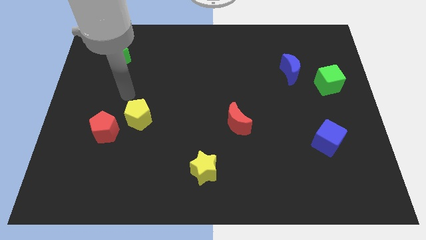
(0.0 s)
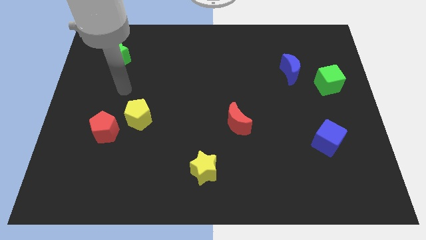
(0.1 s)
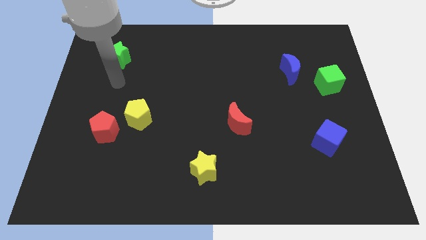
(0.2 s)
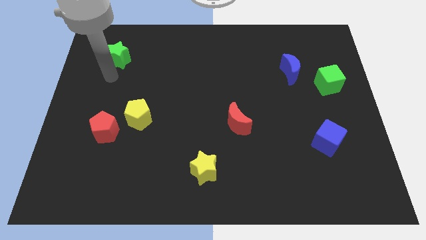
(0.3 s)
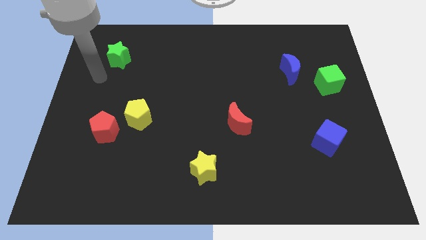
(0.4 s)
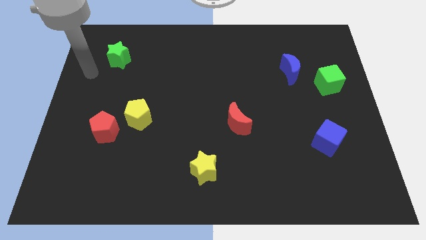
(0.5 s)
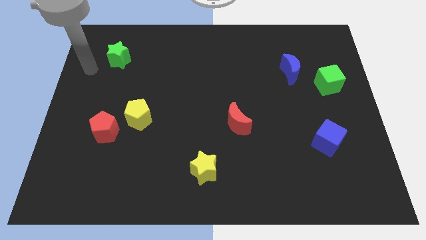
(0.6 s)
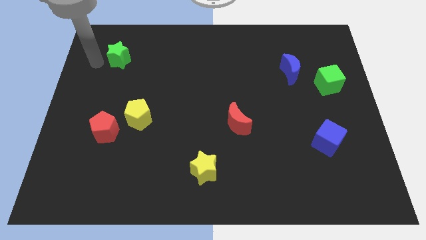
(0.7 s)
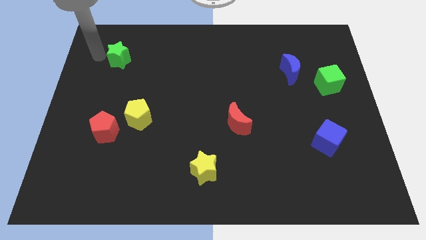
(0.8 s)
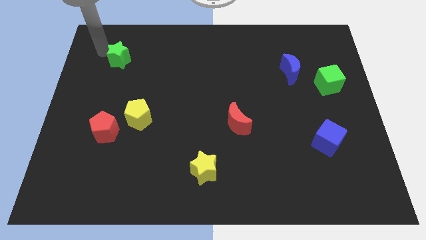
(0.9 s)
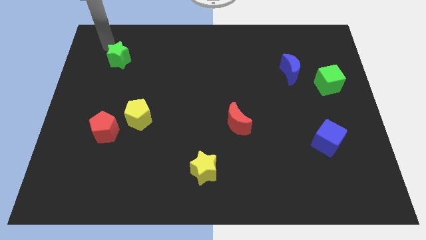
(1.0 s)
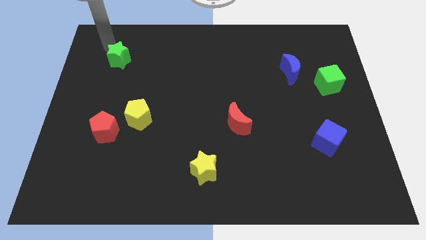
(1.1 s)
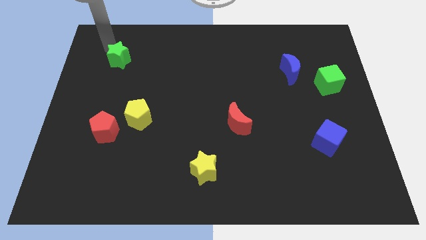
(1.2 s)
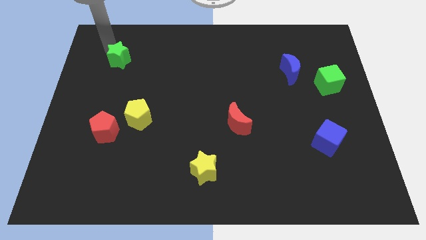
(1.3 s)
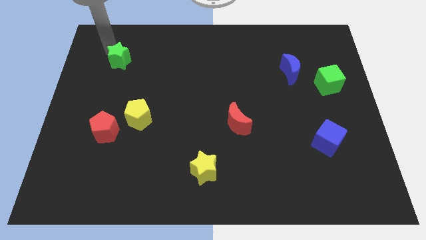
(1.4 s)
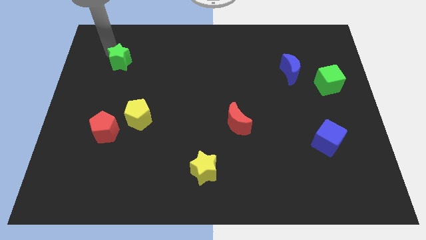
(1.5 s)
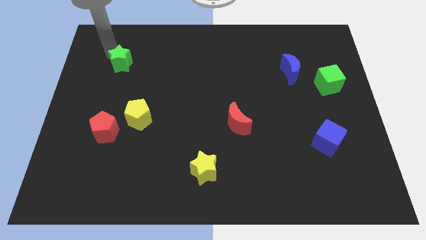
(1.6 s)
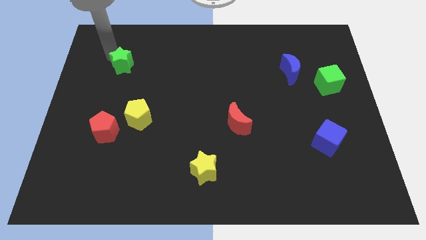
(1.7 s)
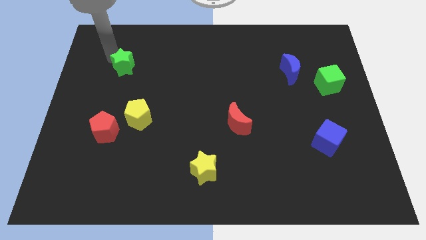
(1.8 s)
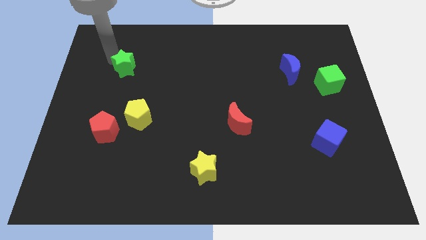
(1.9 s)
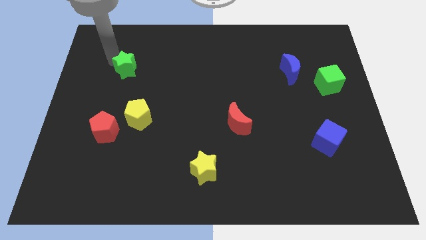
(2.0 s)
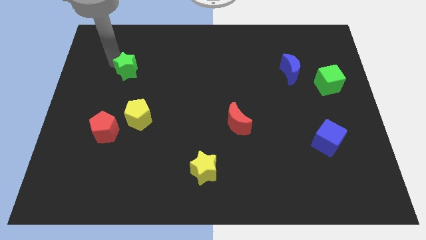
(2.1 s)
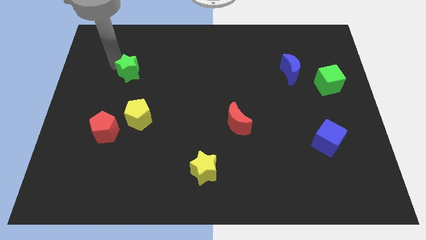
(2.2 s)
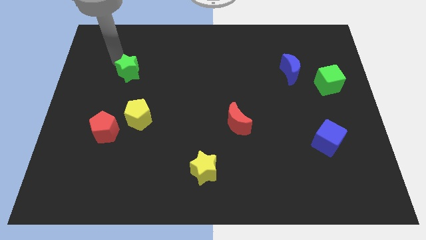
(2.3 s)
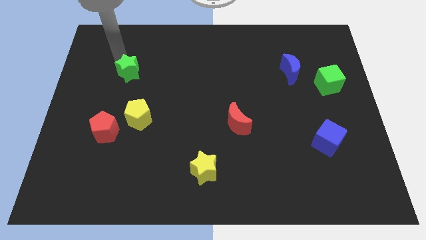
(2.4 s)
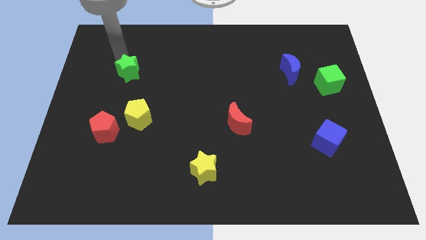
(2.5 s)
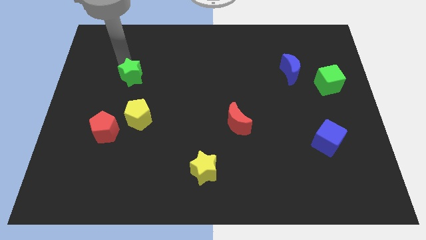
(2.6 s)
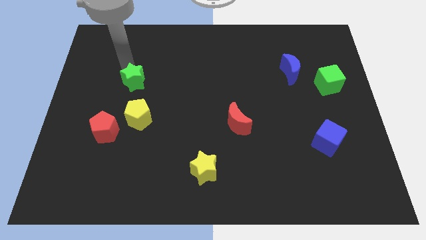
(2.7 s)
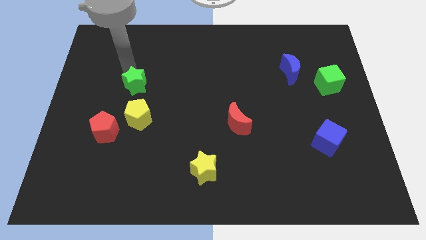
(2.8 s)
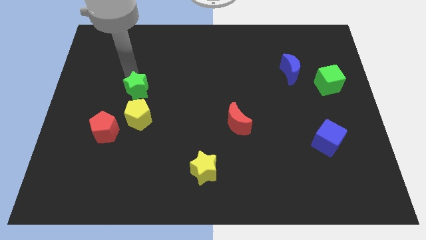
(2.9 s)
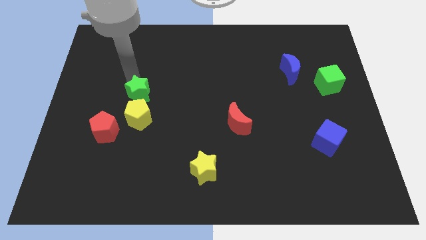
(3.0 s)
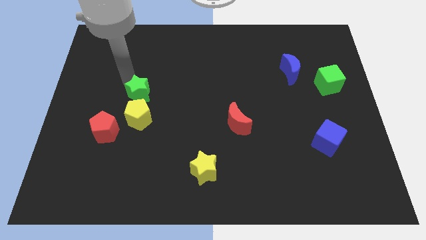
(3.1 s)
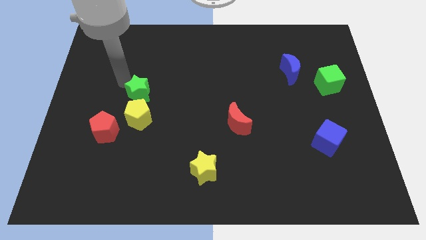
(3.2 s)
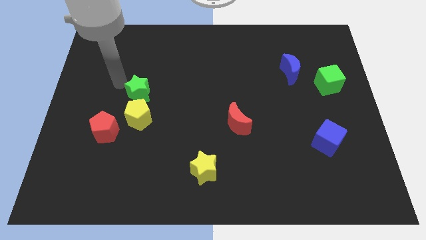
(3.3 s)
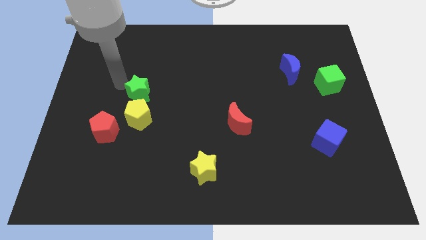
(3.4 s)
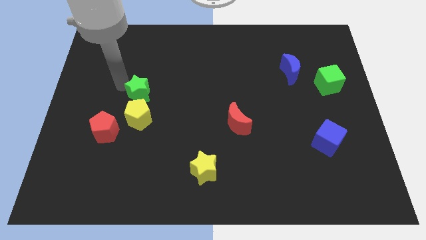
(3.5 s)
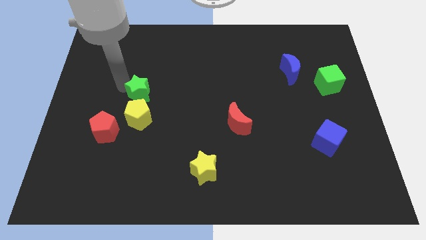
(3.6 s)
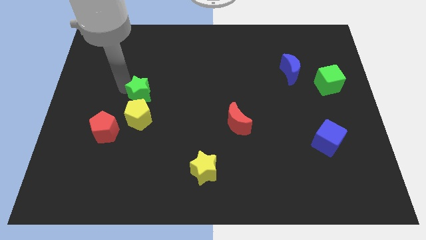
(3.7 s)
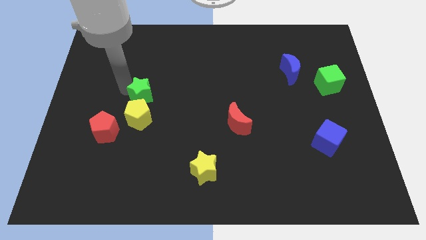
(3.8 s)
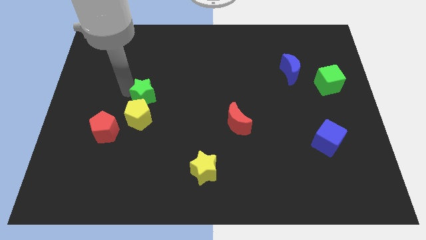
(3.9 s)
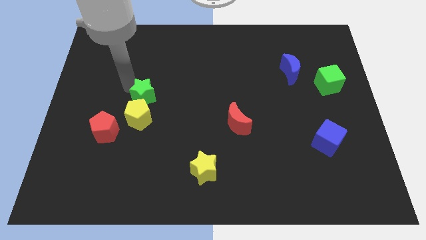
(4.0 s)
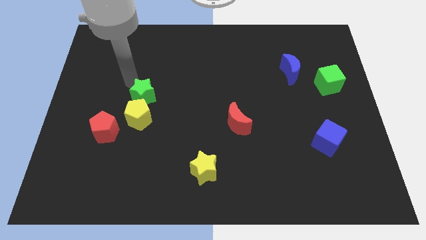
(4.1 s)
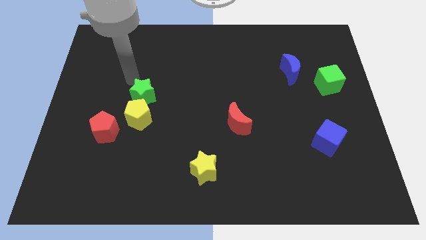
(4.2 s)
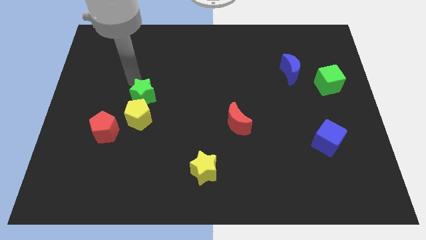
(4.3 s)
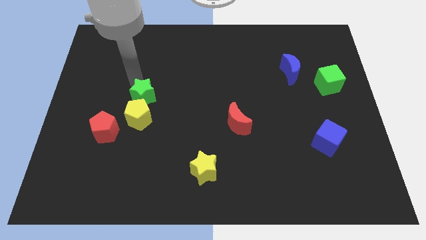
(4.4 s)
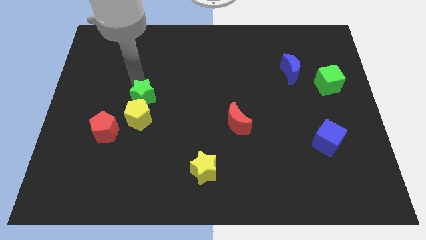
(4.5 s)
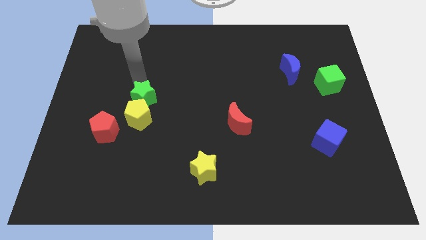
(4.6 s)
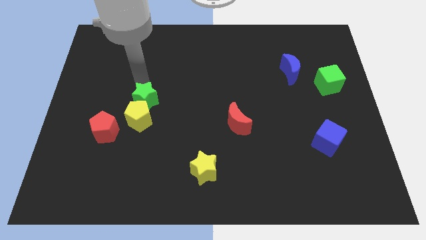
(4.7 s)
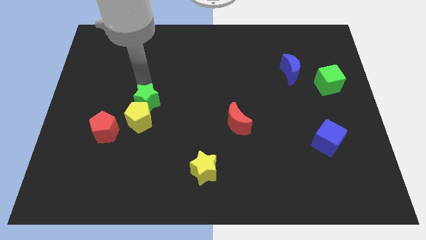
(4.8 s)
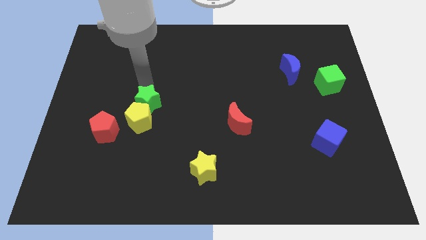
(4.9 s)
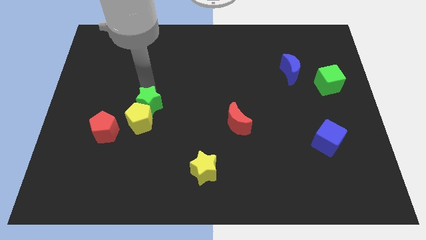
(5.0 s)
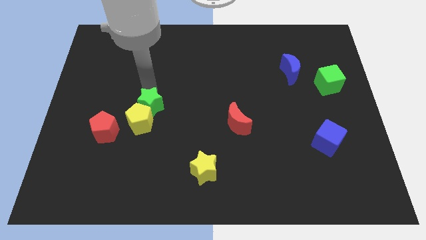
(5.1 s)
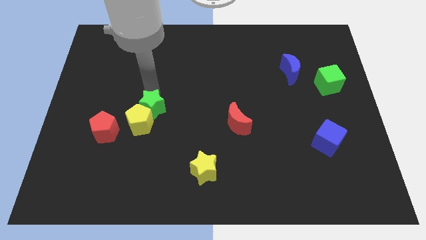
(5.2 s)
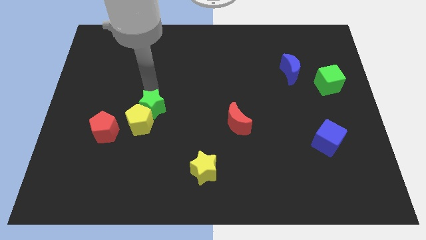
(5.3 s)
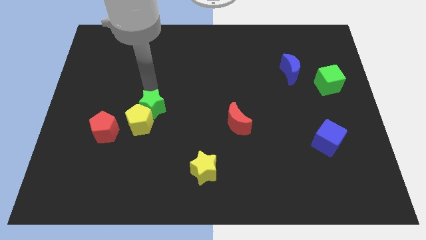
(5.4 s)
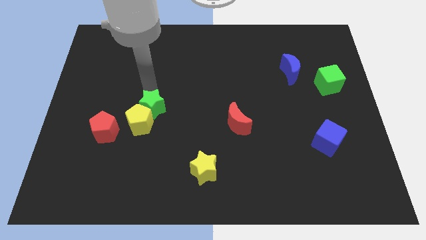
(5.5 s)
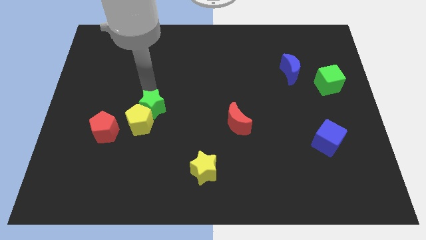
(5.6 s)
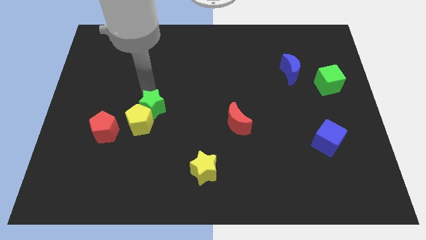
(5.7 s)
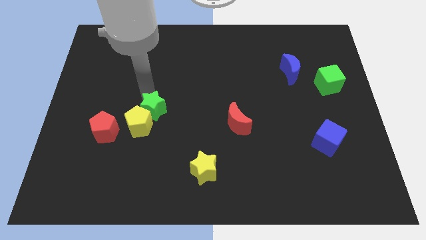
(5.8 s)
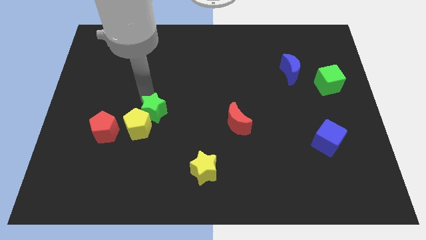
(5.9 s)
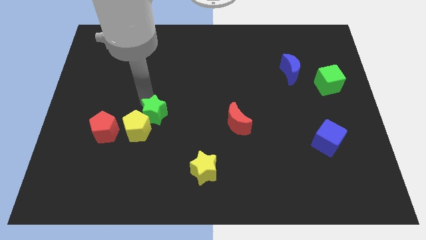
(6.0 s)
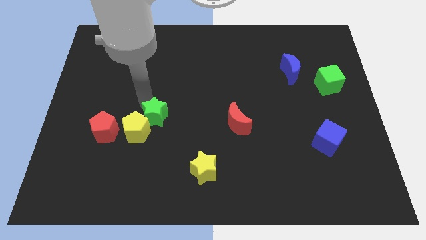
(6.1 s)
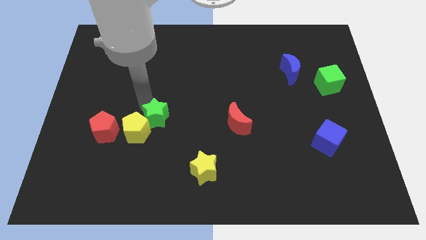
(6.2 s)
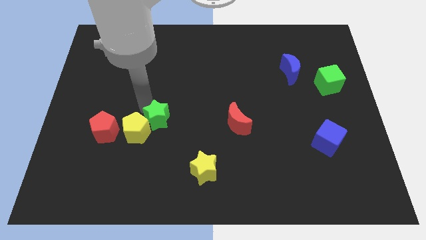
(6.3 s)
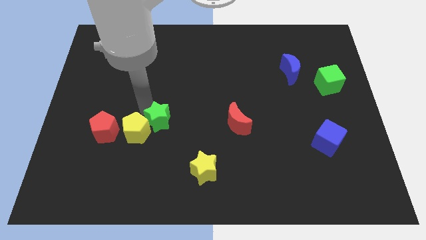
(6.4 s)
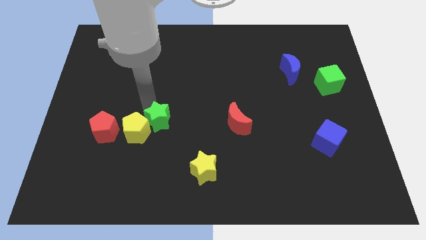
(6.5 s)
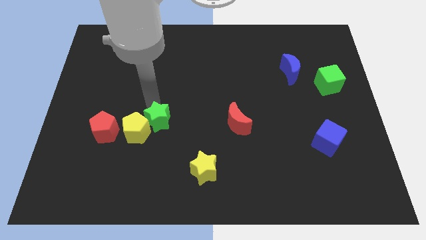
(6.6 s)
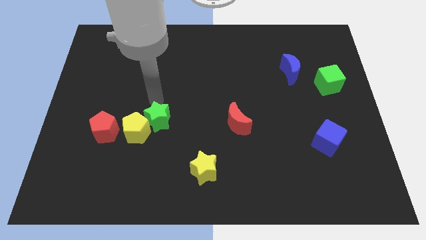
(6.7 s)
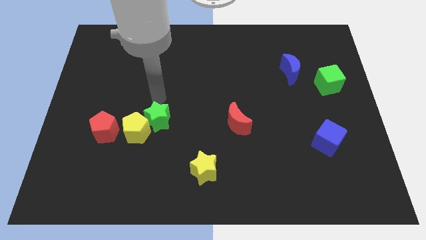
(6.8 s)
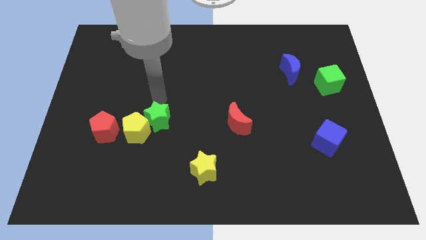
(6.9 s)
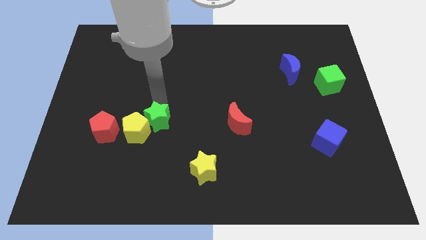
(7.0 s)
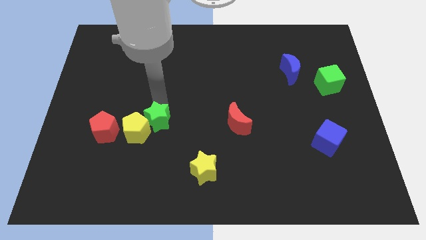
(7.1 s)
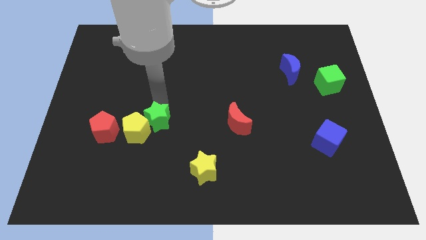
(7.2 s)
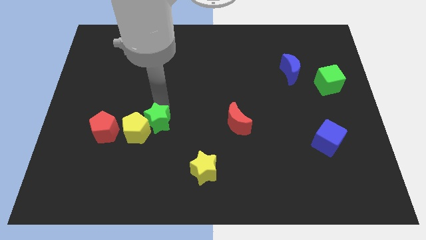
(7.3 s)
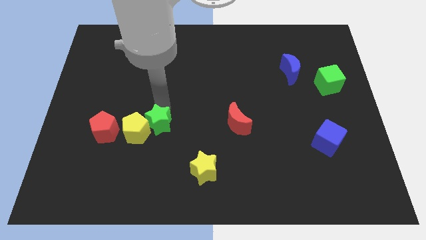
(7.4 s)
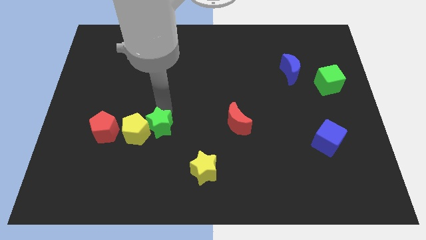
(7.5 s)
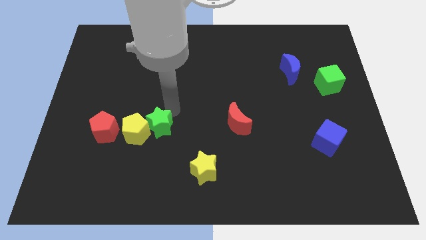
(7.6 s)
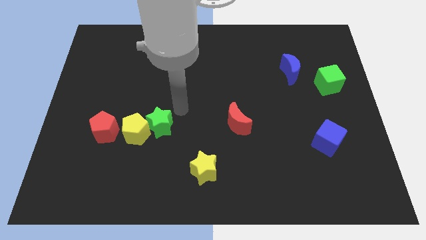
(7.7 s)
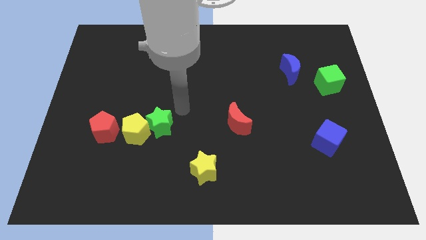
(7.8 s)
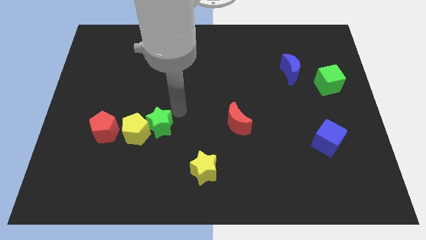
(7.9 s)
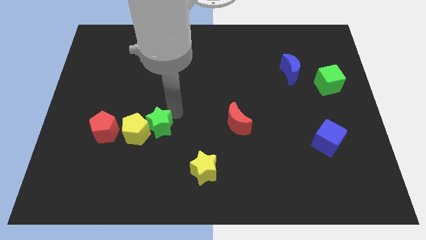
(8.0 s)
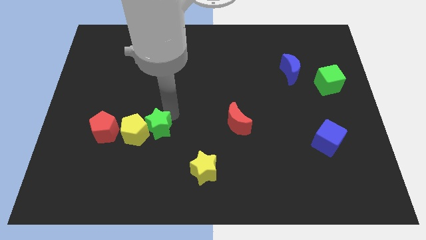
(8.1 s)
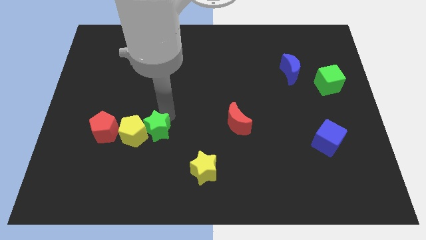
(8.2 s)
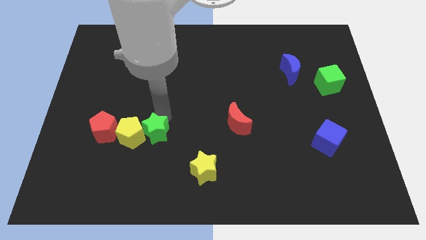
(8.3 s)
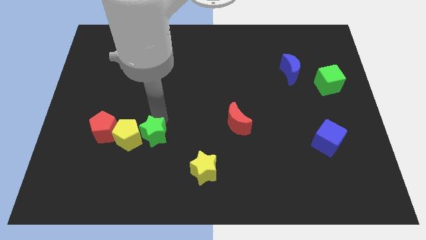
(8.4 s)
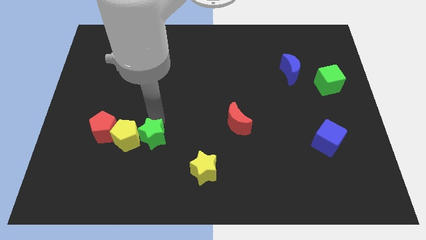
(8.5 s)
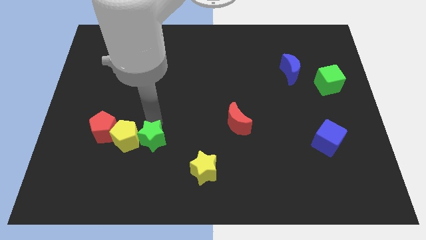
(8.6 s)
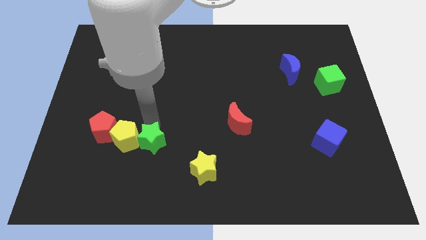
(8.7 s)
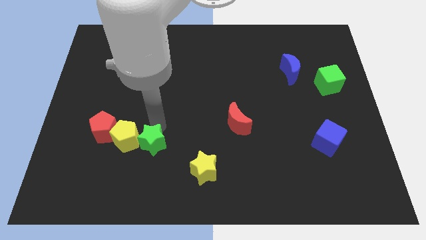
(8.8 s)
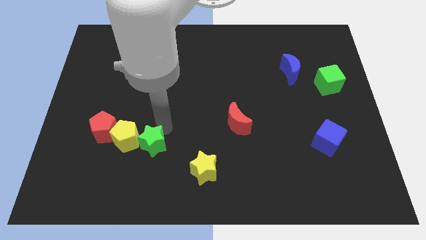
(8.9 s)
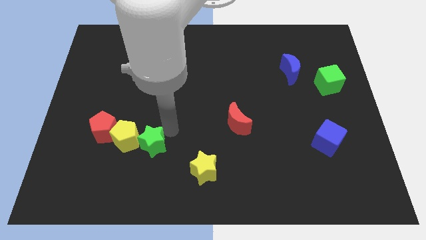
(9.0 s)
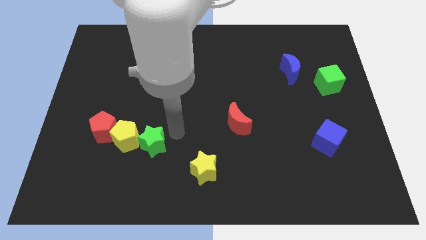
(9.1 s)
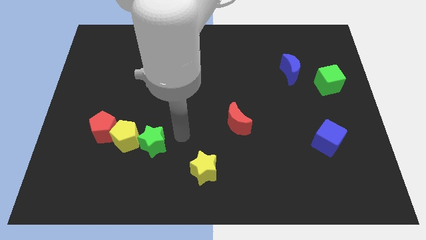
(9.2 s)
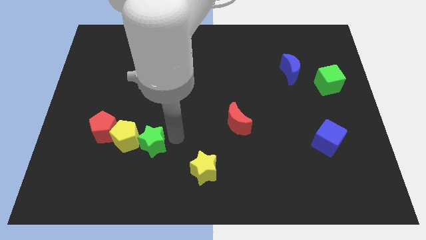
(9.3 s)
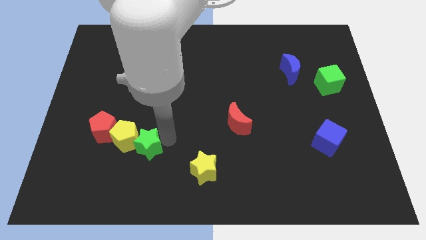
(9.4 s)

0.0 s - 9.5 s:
put the green star to the bottom right of the red pentagon
